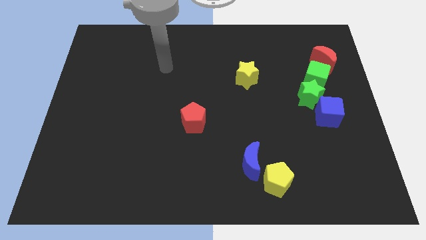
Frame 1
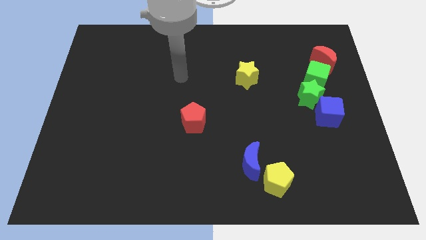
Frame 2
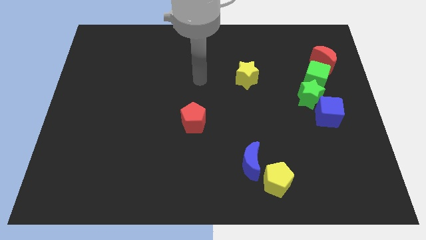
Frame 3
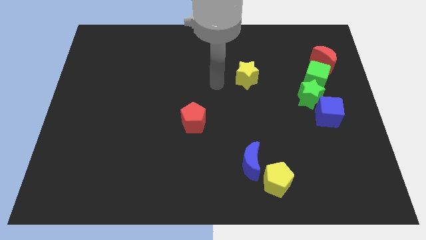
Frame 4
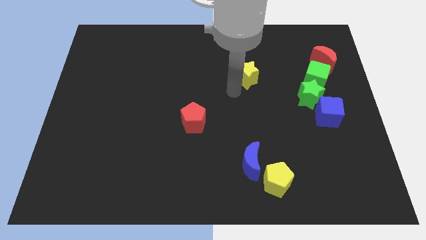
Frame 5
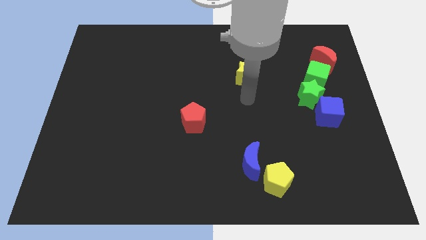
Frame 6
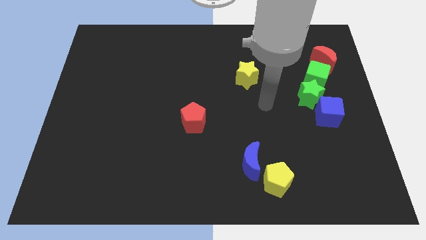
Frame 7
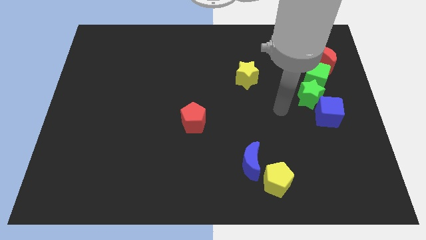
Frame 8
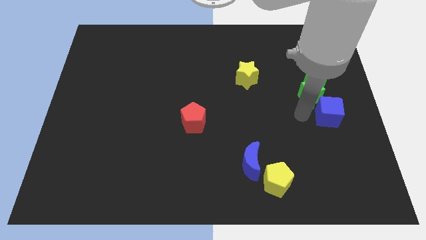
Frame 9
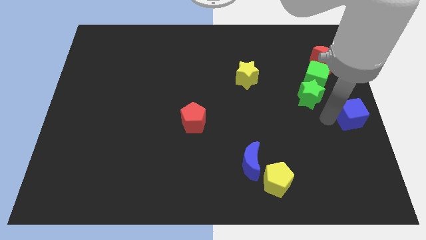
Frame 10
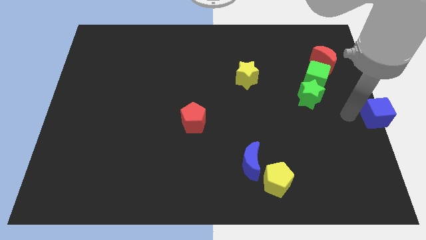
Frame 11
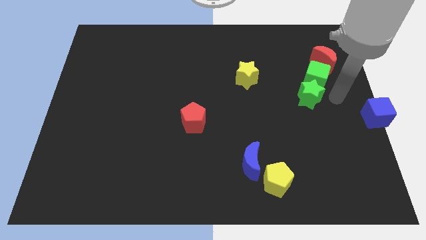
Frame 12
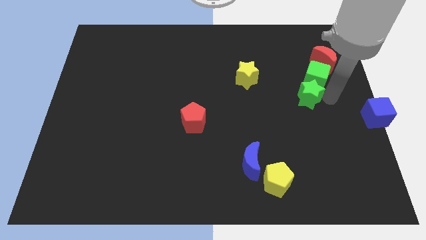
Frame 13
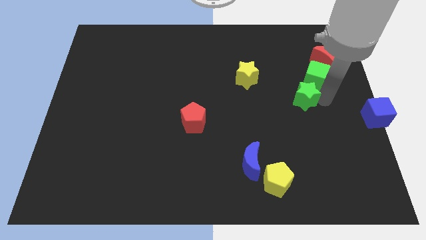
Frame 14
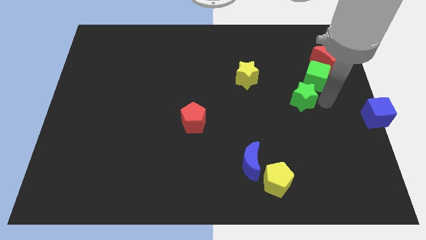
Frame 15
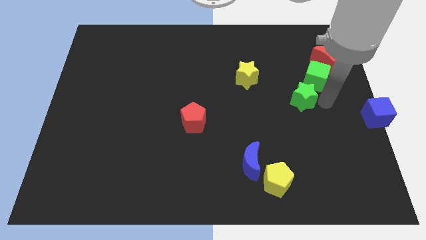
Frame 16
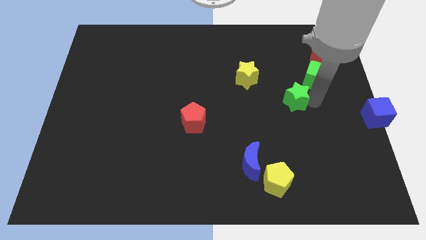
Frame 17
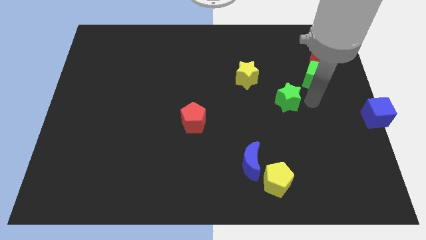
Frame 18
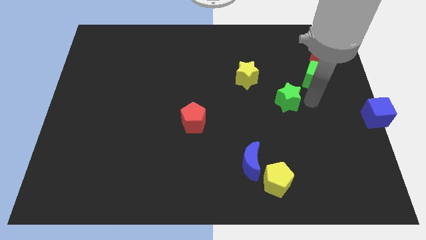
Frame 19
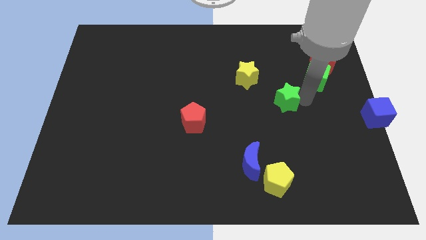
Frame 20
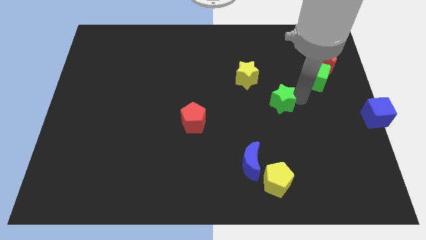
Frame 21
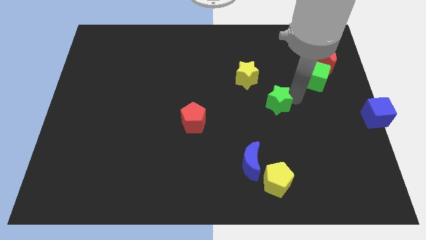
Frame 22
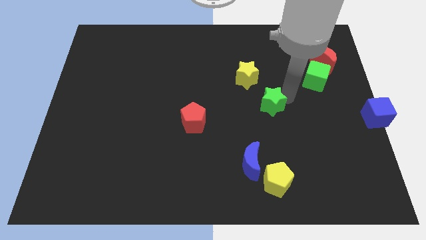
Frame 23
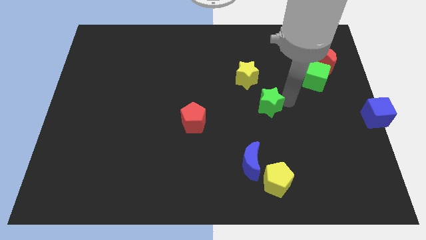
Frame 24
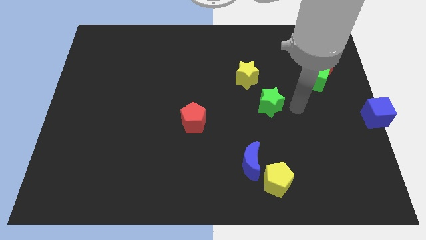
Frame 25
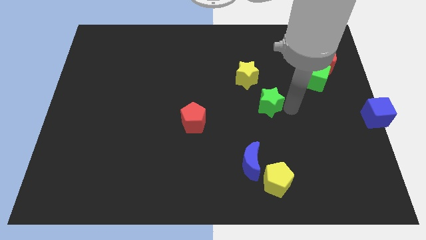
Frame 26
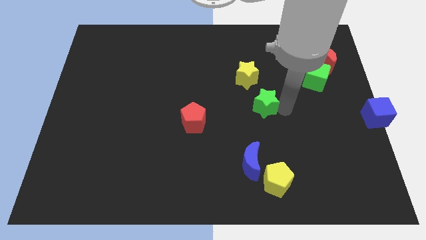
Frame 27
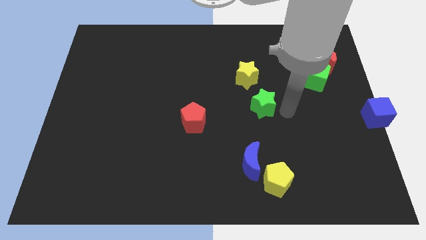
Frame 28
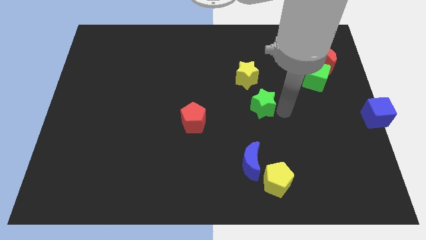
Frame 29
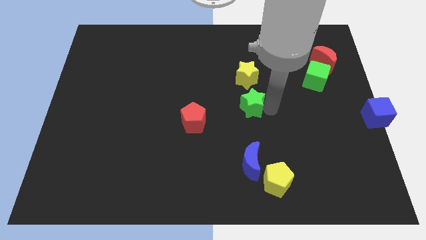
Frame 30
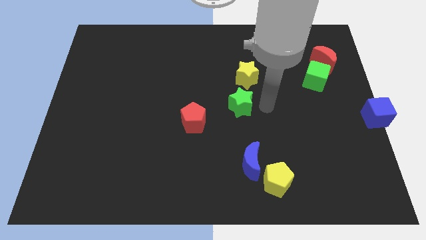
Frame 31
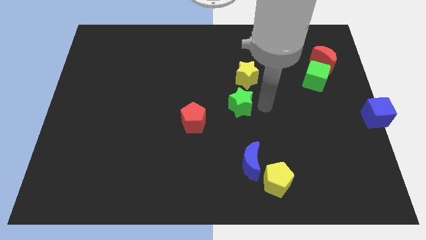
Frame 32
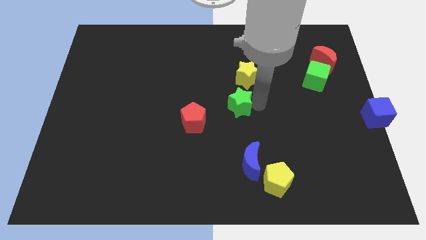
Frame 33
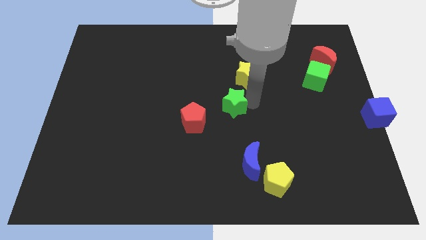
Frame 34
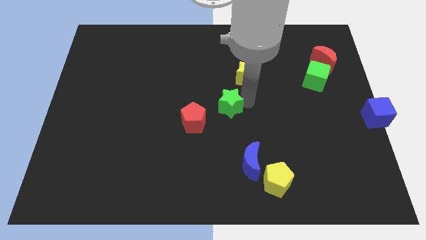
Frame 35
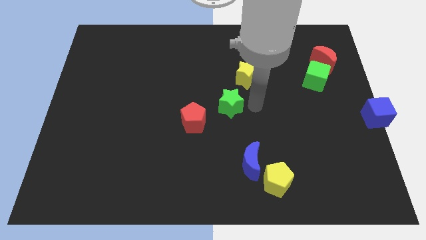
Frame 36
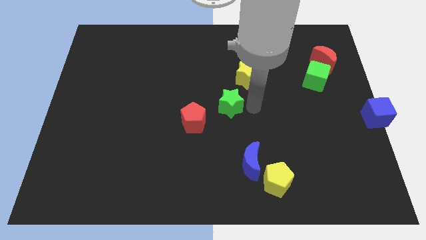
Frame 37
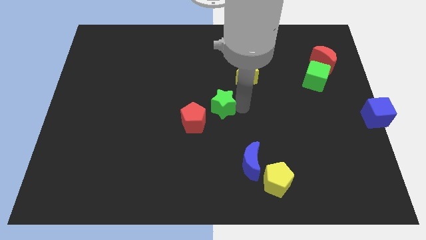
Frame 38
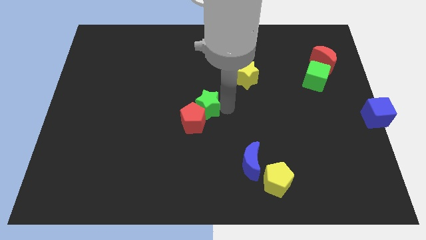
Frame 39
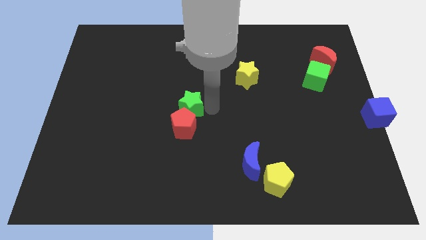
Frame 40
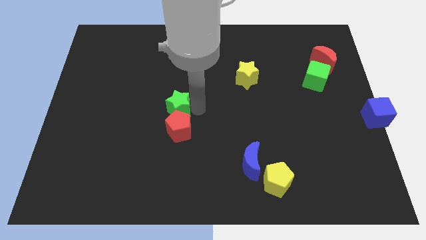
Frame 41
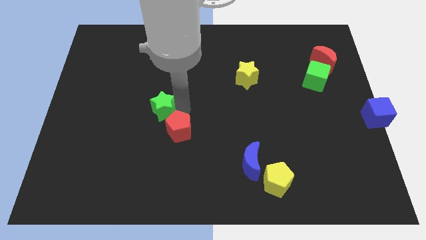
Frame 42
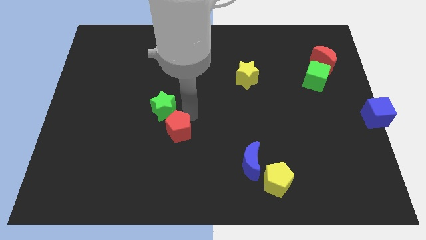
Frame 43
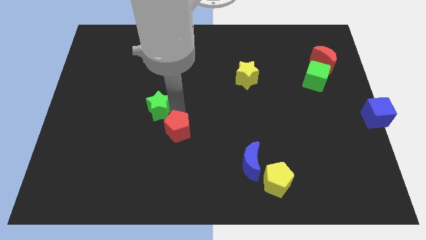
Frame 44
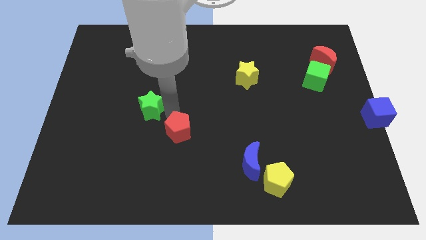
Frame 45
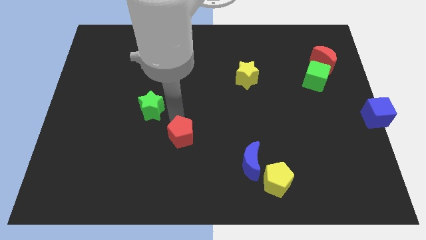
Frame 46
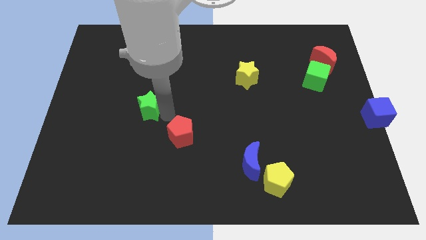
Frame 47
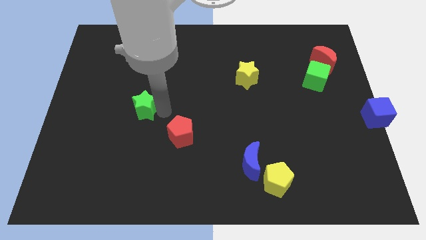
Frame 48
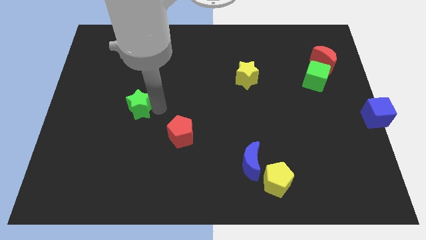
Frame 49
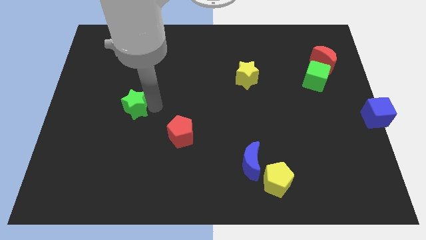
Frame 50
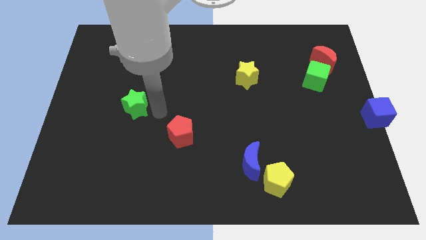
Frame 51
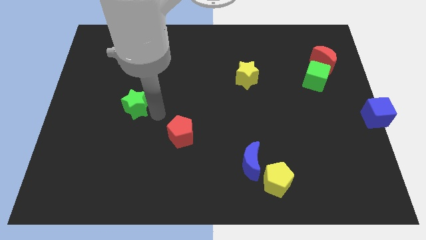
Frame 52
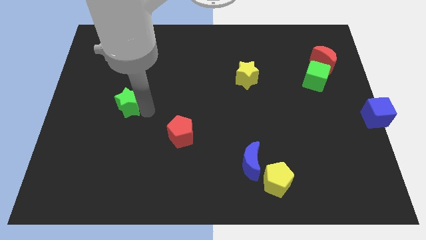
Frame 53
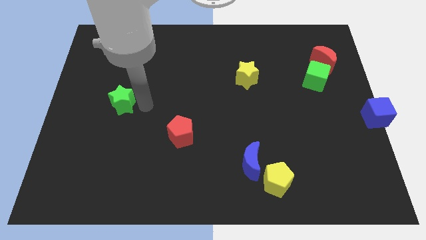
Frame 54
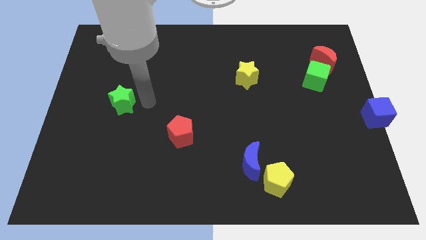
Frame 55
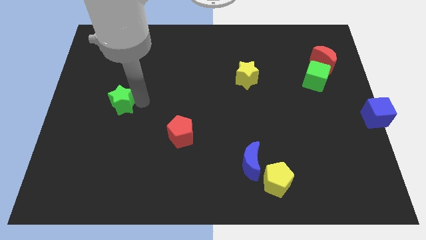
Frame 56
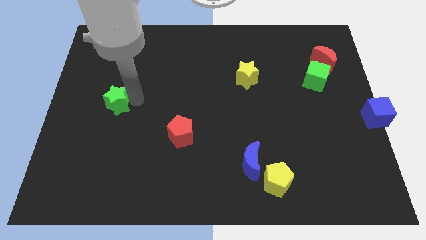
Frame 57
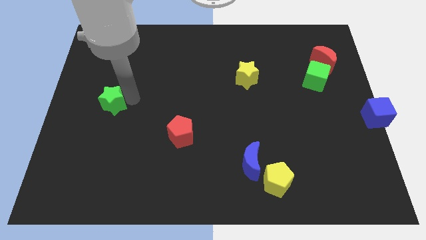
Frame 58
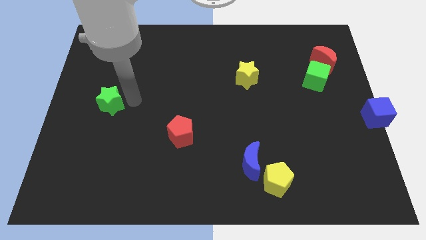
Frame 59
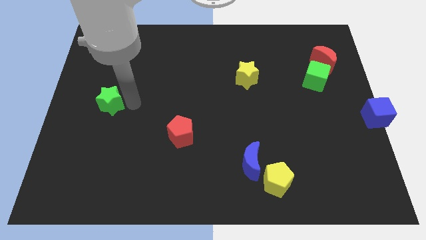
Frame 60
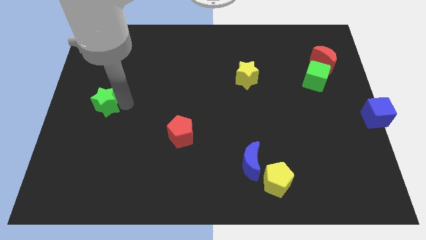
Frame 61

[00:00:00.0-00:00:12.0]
slide the green star to the left side

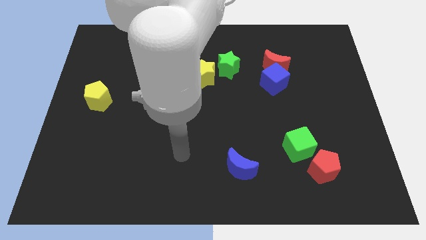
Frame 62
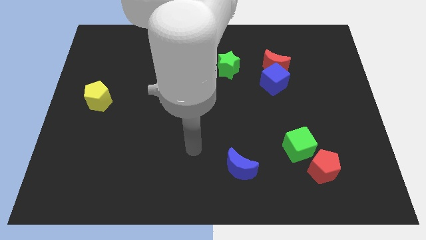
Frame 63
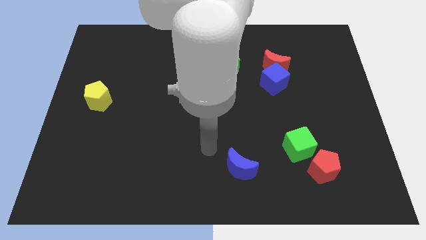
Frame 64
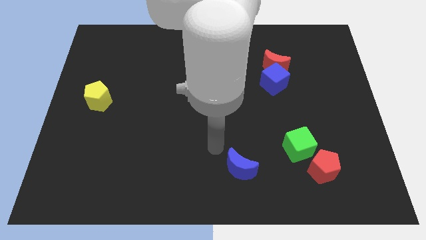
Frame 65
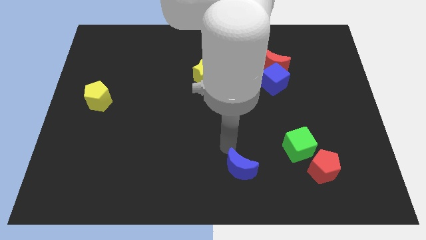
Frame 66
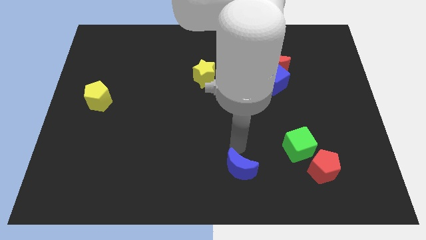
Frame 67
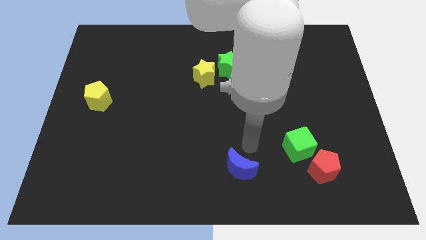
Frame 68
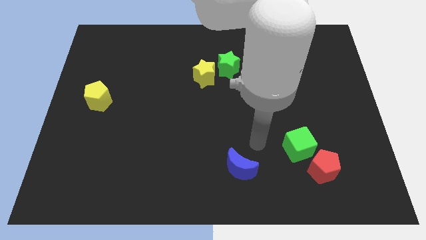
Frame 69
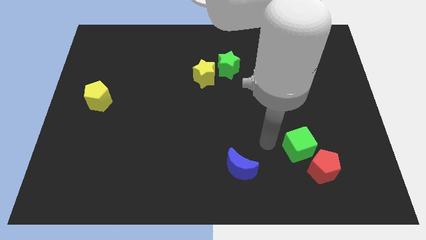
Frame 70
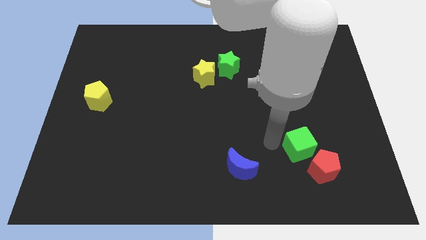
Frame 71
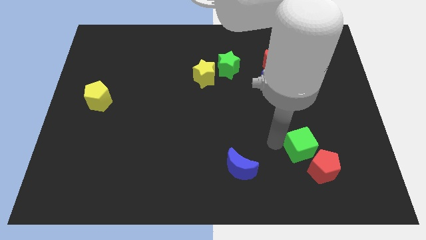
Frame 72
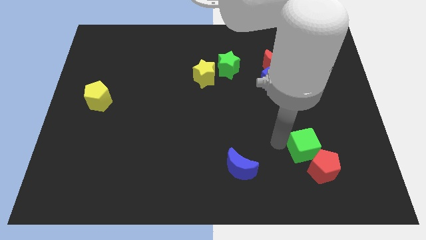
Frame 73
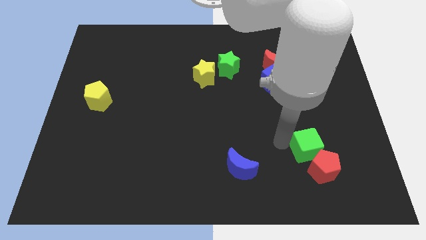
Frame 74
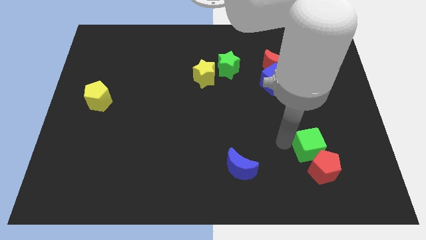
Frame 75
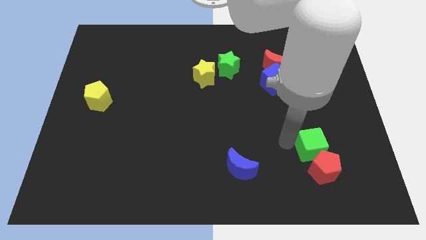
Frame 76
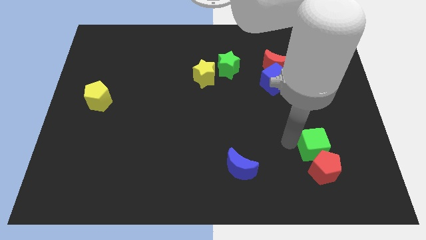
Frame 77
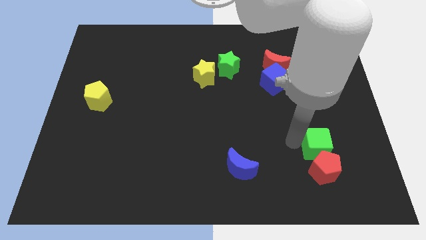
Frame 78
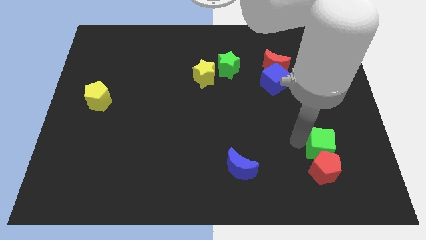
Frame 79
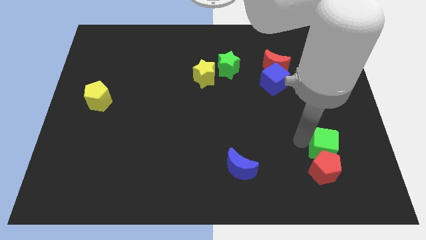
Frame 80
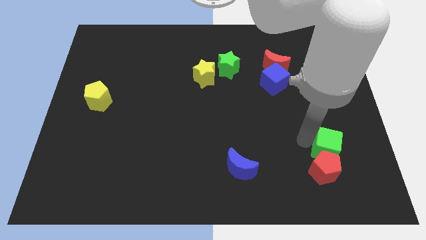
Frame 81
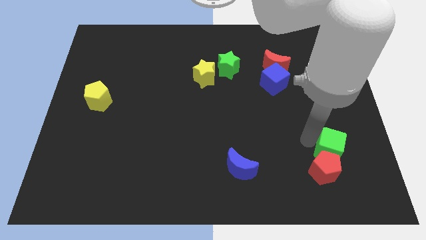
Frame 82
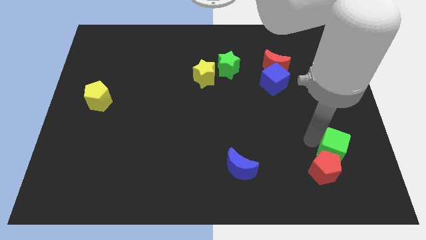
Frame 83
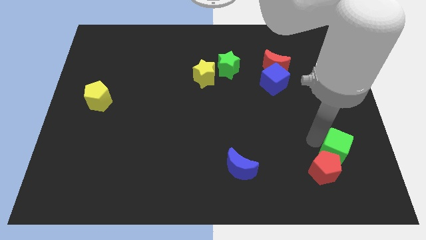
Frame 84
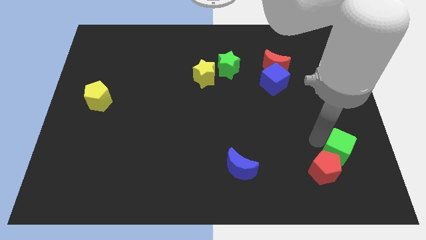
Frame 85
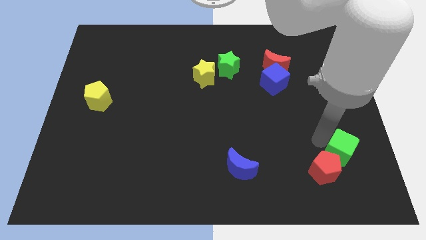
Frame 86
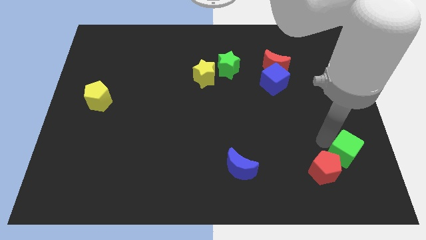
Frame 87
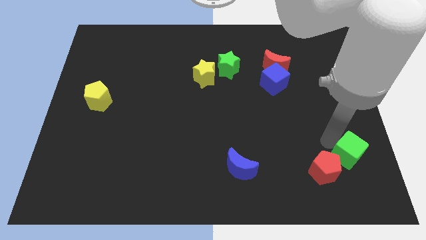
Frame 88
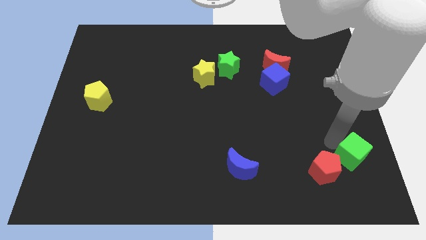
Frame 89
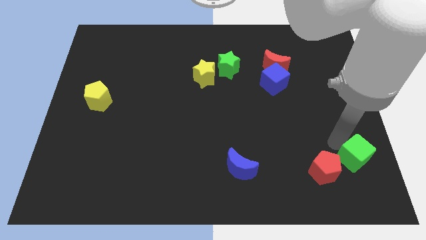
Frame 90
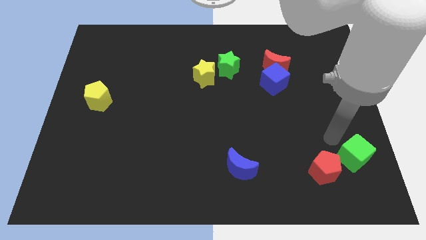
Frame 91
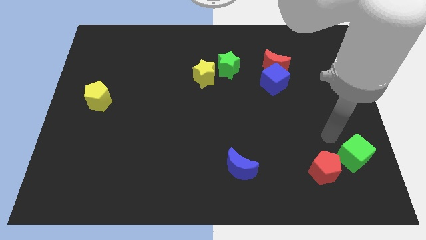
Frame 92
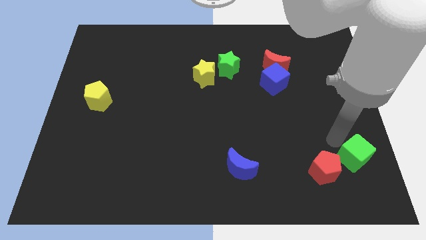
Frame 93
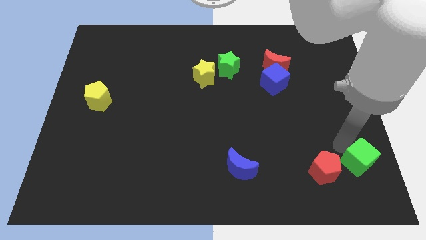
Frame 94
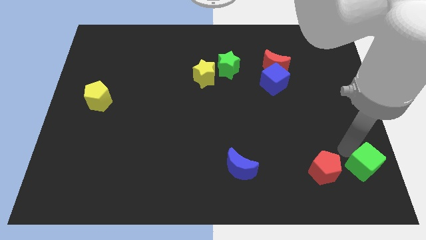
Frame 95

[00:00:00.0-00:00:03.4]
move the green cube to the bottom right corner
